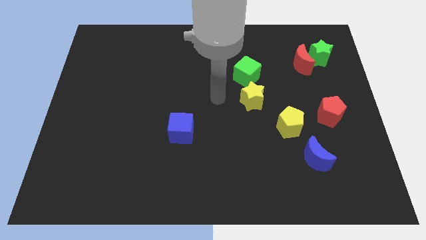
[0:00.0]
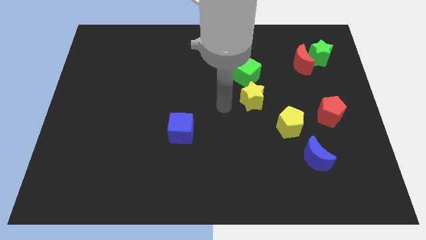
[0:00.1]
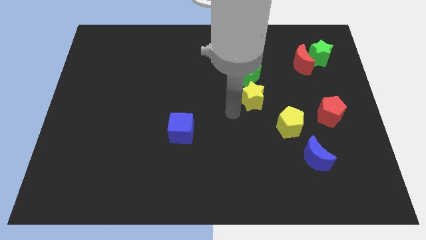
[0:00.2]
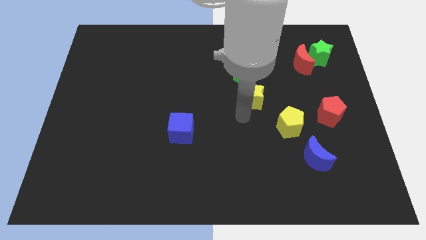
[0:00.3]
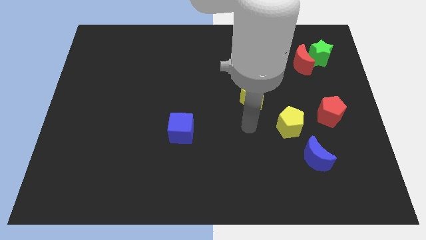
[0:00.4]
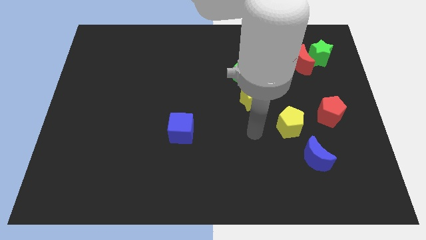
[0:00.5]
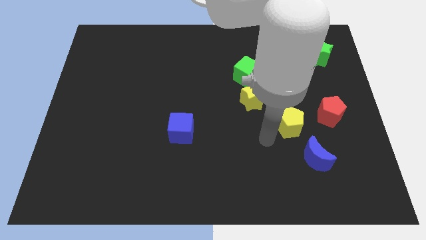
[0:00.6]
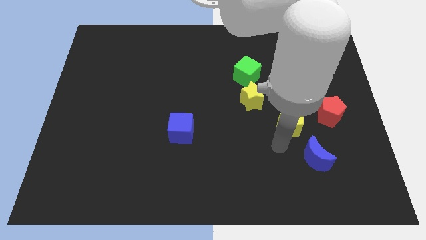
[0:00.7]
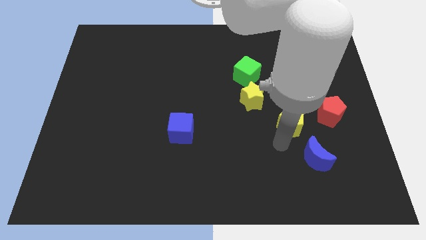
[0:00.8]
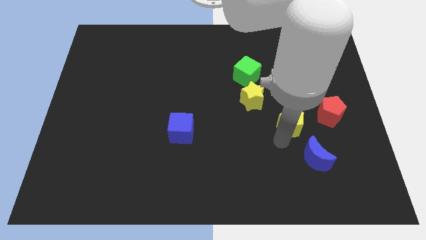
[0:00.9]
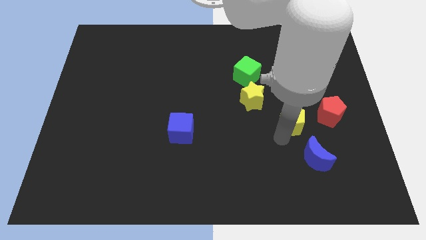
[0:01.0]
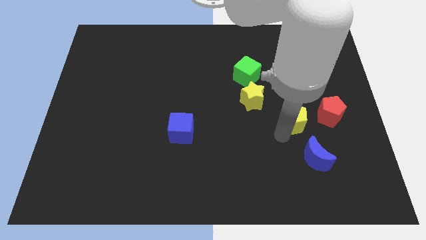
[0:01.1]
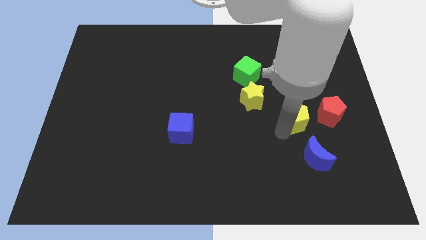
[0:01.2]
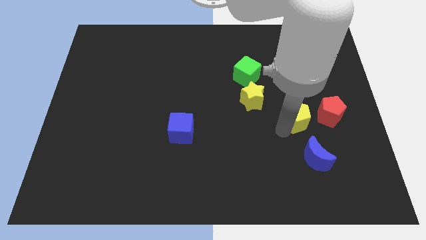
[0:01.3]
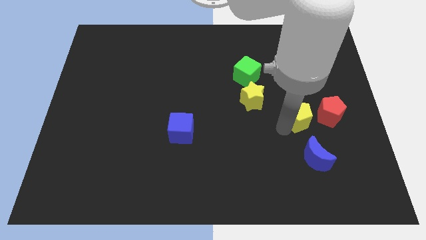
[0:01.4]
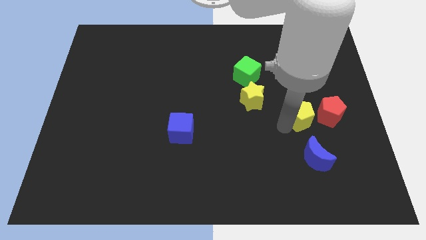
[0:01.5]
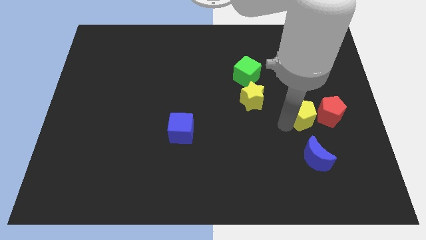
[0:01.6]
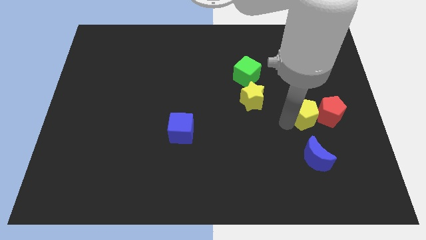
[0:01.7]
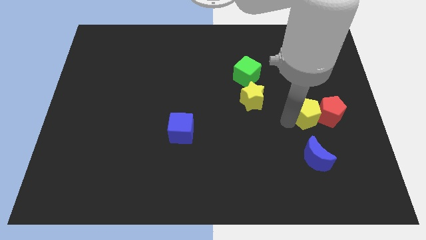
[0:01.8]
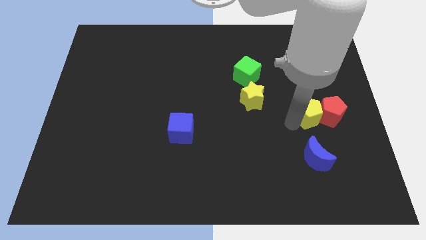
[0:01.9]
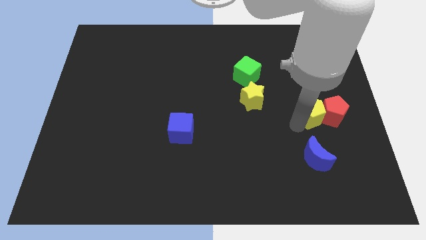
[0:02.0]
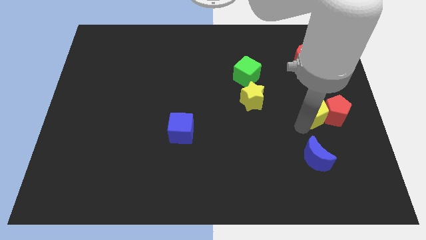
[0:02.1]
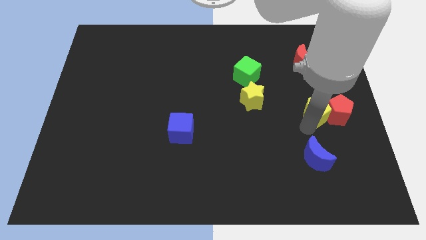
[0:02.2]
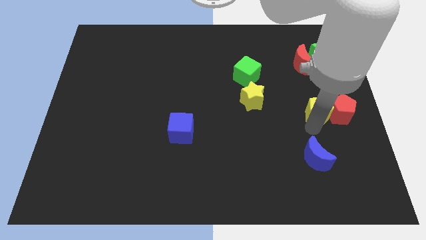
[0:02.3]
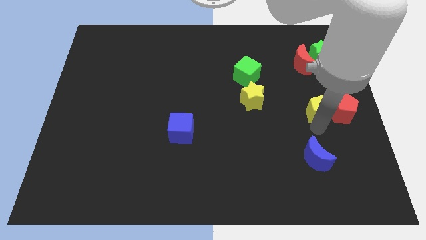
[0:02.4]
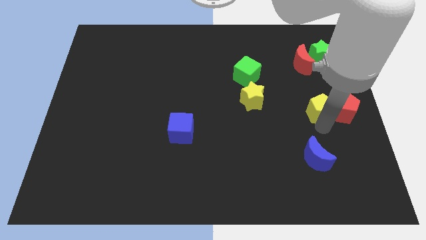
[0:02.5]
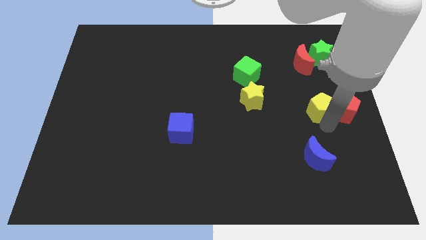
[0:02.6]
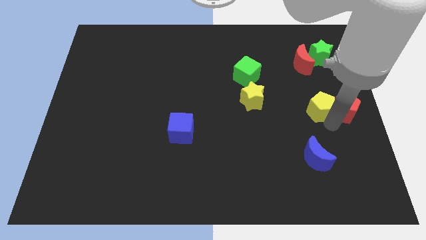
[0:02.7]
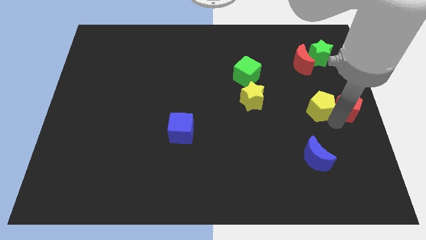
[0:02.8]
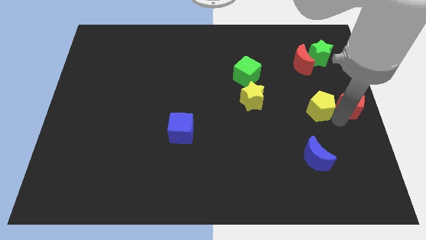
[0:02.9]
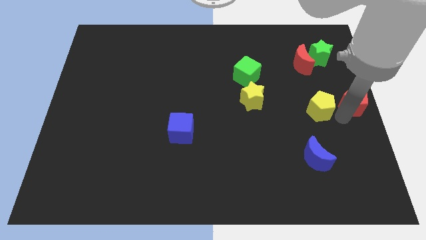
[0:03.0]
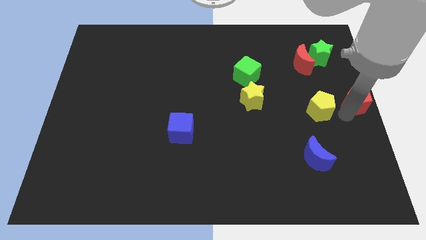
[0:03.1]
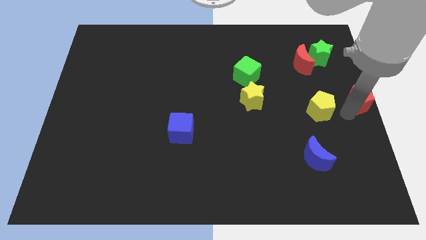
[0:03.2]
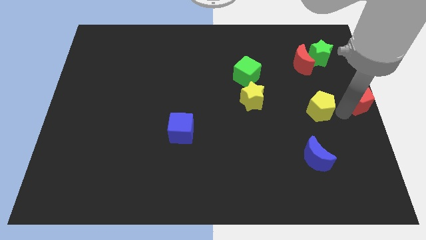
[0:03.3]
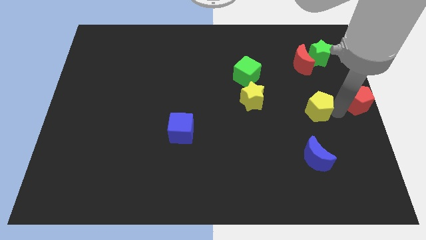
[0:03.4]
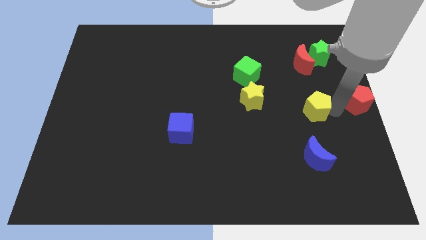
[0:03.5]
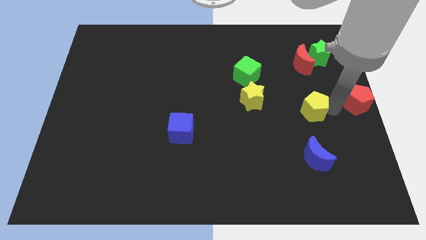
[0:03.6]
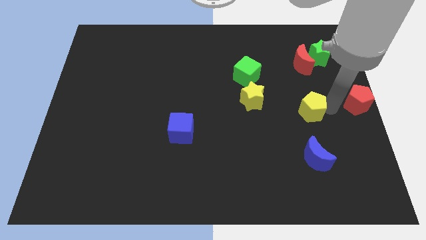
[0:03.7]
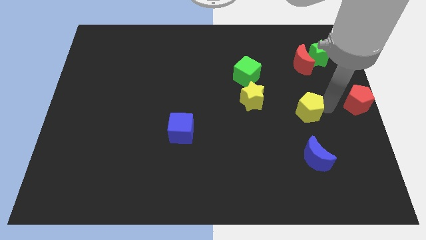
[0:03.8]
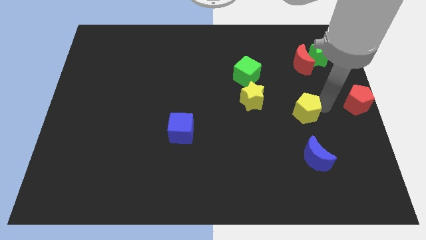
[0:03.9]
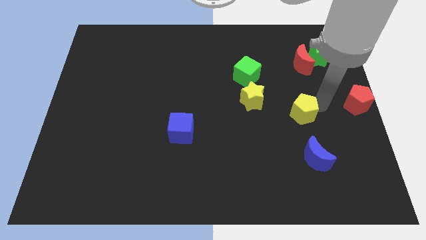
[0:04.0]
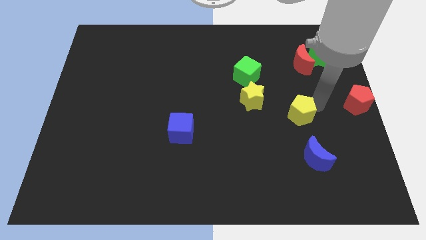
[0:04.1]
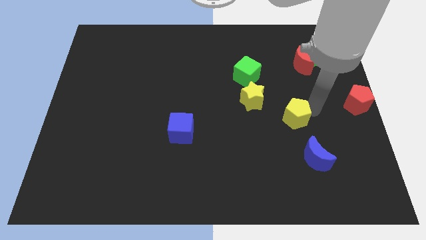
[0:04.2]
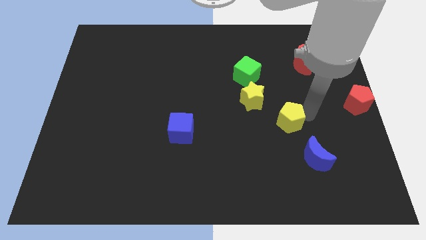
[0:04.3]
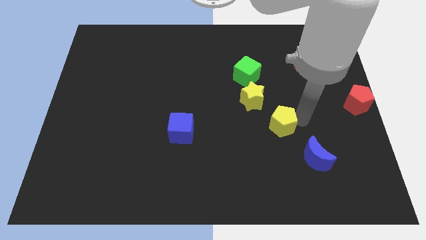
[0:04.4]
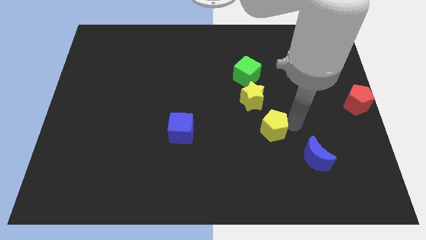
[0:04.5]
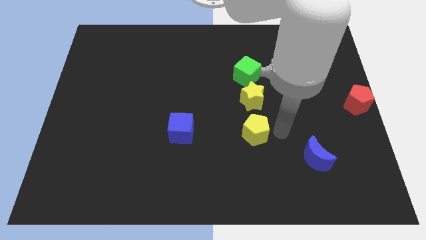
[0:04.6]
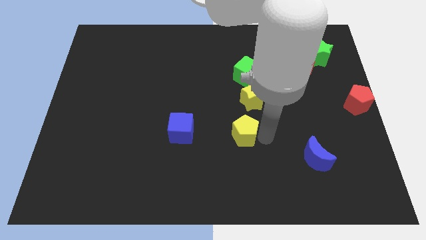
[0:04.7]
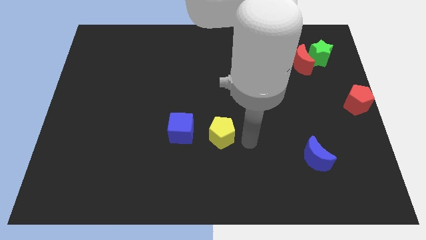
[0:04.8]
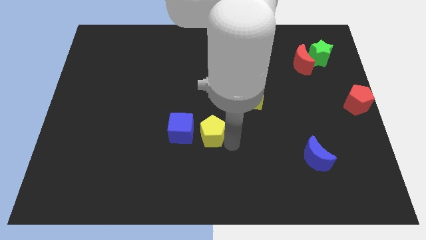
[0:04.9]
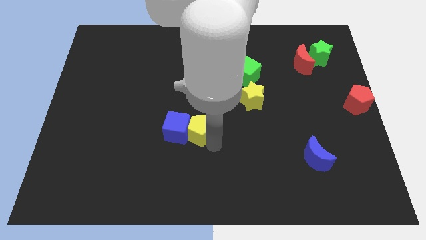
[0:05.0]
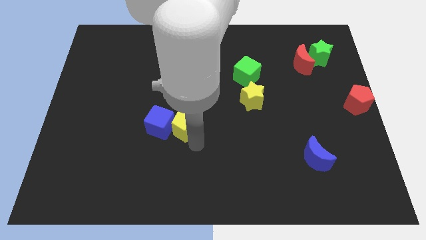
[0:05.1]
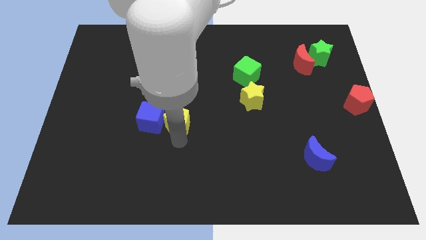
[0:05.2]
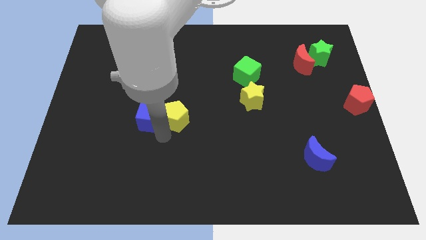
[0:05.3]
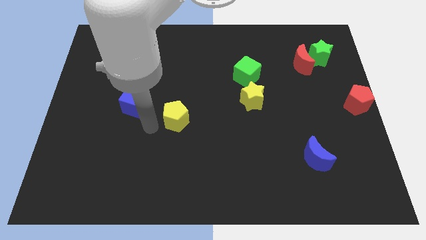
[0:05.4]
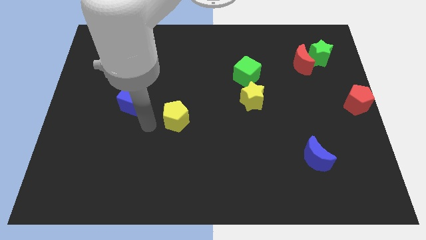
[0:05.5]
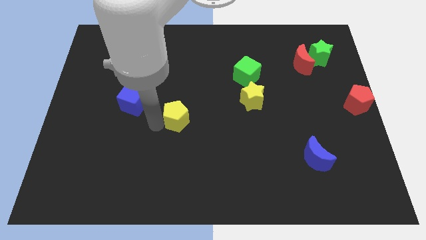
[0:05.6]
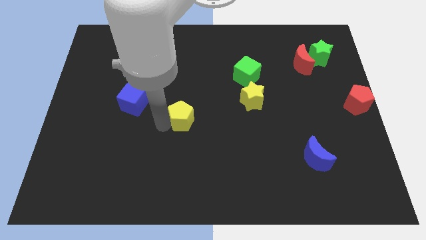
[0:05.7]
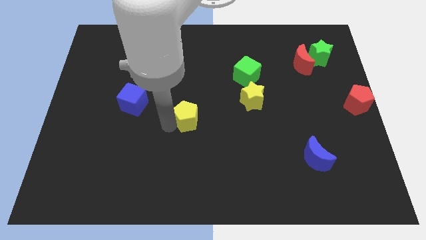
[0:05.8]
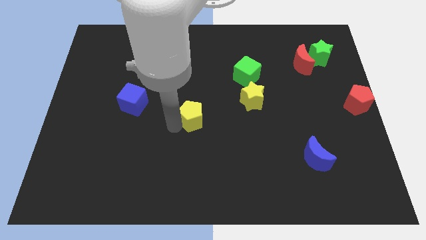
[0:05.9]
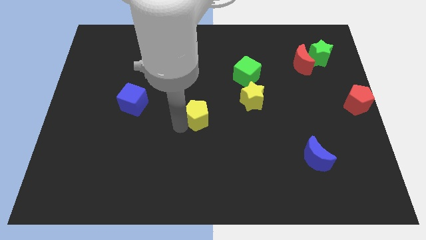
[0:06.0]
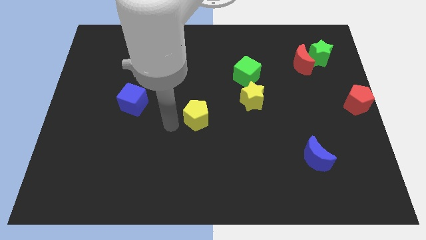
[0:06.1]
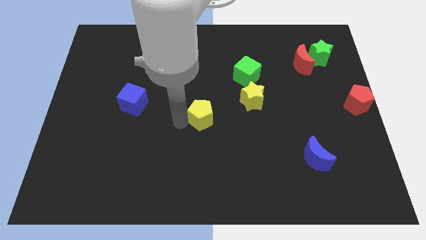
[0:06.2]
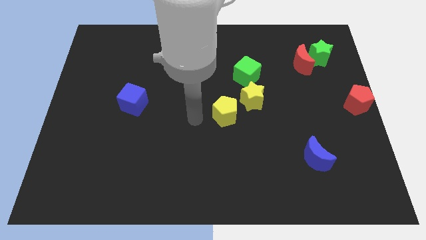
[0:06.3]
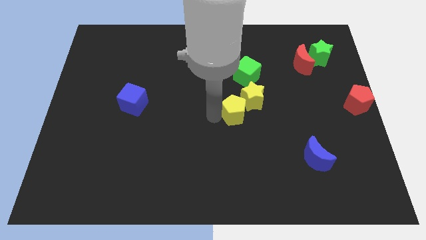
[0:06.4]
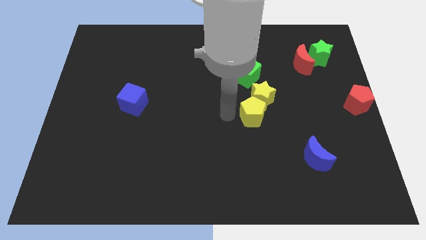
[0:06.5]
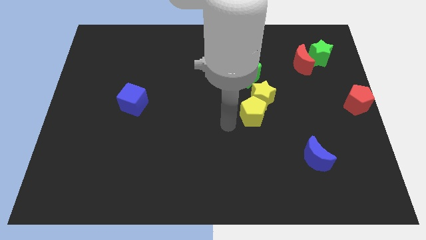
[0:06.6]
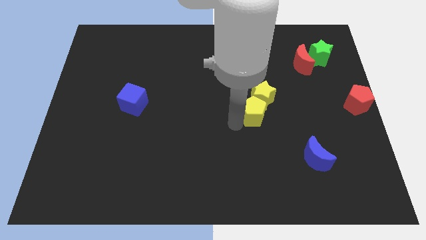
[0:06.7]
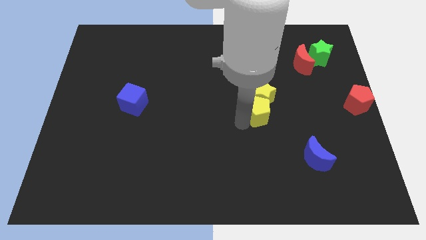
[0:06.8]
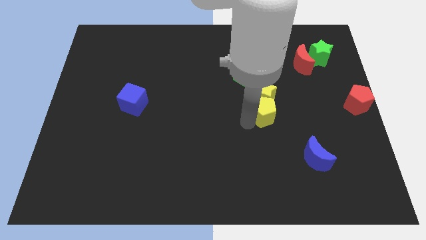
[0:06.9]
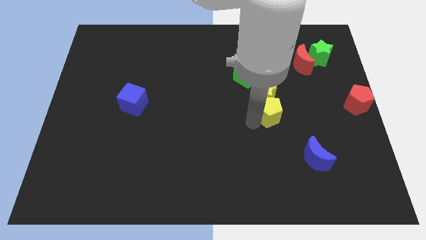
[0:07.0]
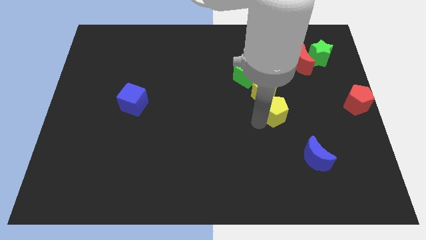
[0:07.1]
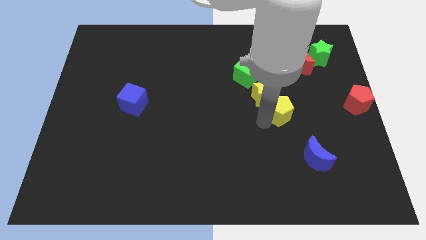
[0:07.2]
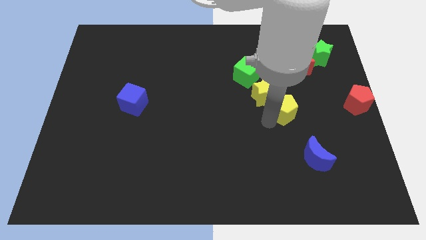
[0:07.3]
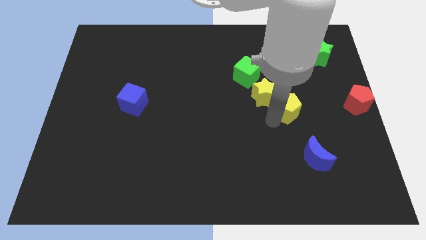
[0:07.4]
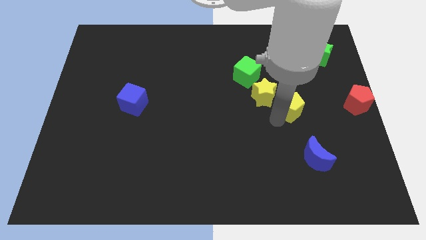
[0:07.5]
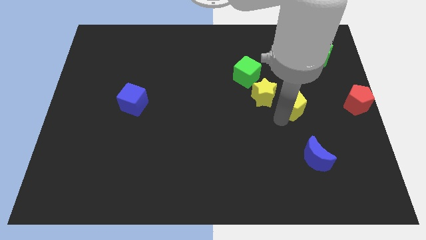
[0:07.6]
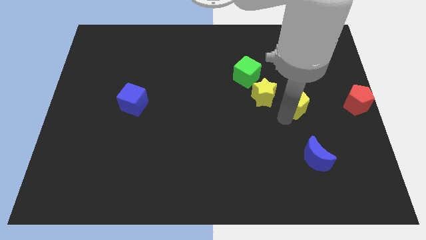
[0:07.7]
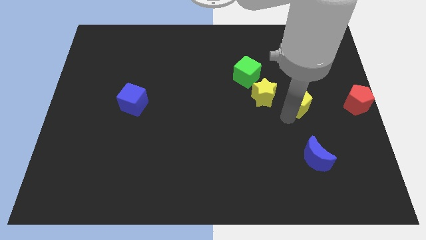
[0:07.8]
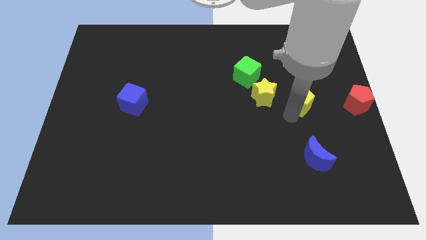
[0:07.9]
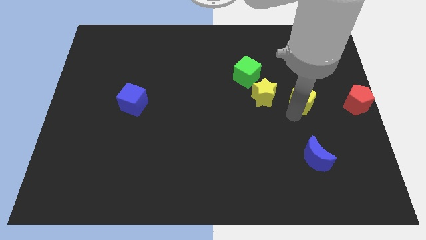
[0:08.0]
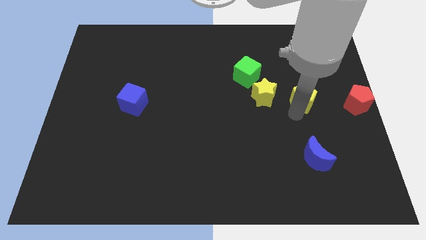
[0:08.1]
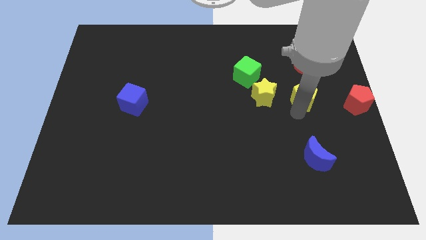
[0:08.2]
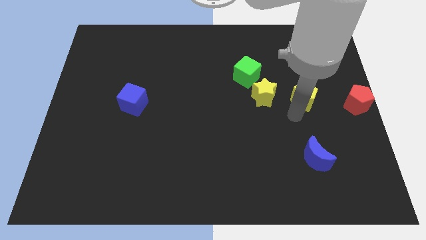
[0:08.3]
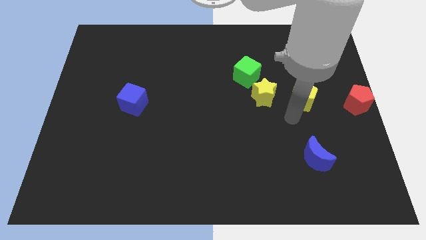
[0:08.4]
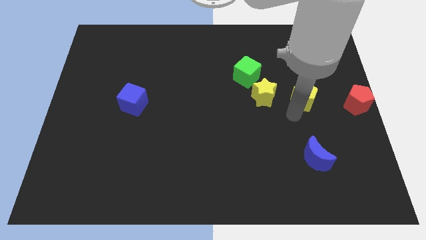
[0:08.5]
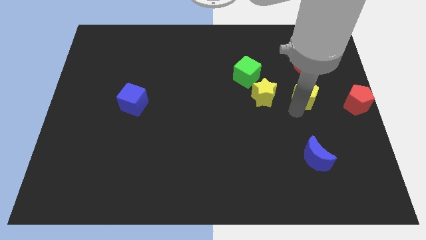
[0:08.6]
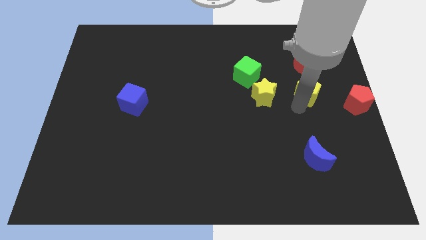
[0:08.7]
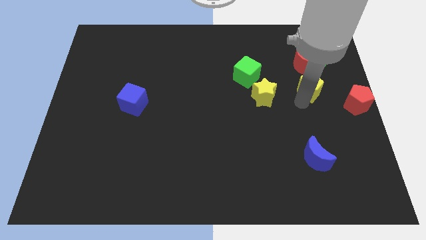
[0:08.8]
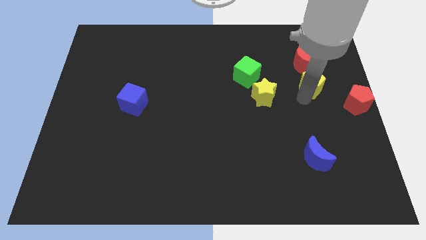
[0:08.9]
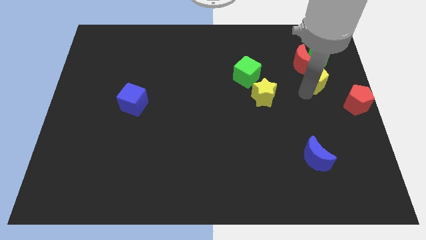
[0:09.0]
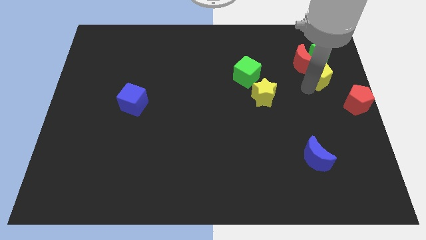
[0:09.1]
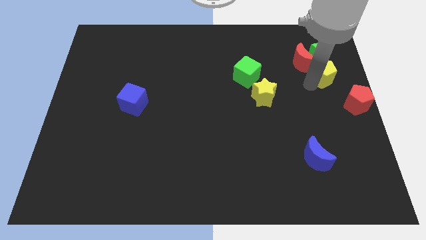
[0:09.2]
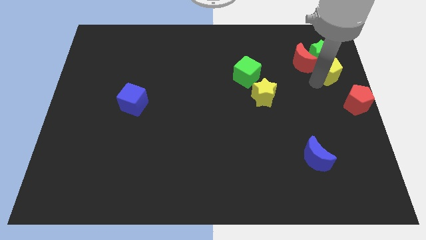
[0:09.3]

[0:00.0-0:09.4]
push the yellow pentagon close to the green star
